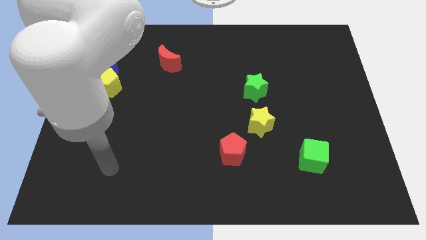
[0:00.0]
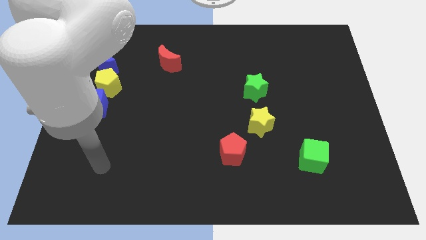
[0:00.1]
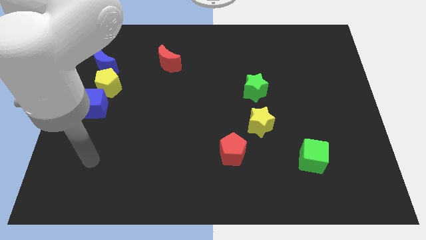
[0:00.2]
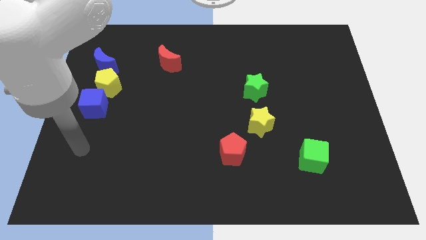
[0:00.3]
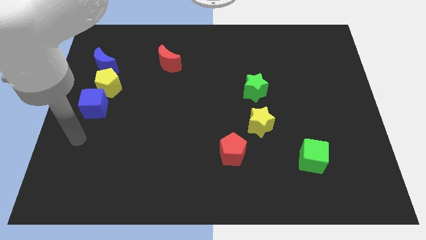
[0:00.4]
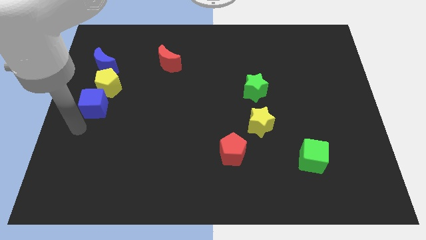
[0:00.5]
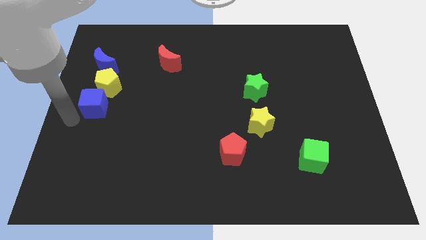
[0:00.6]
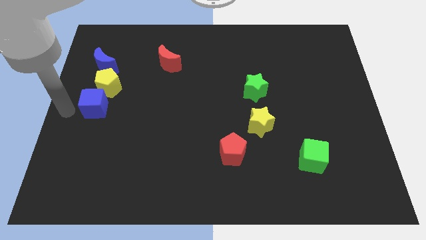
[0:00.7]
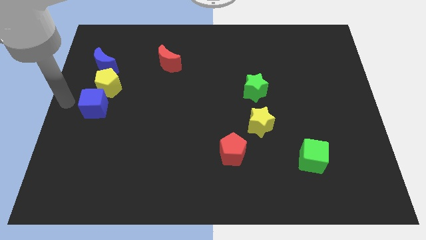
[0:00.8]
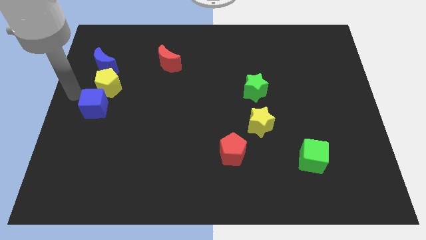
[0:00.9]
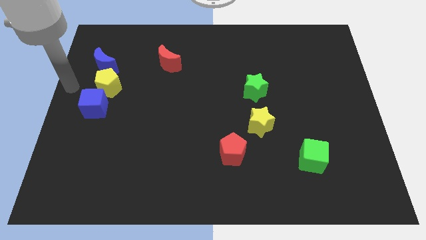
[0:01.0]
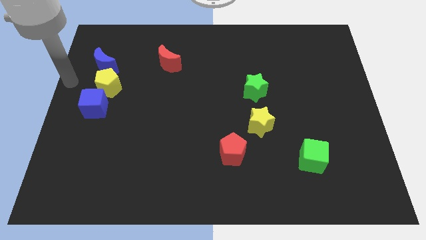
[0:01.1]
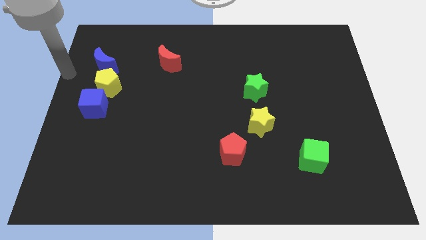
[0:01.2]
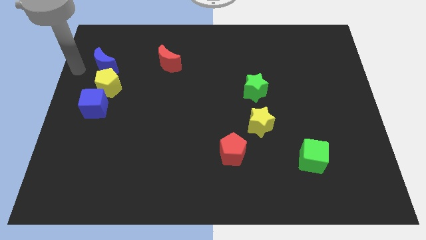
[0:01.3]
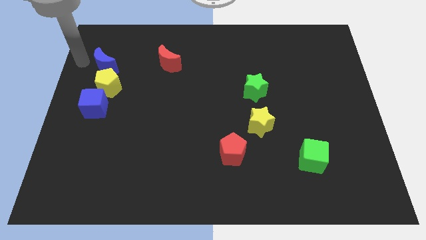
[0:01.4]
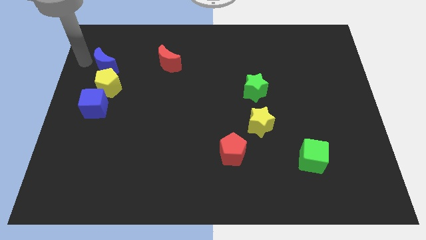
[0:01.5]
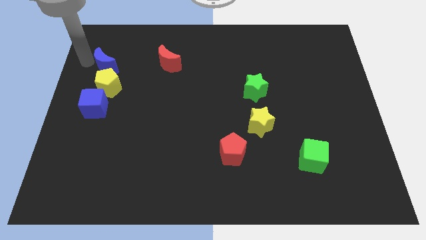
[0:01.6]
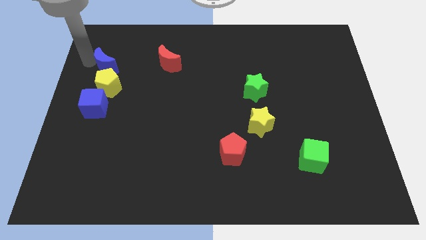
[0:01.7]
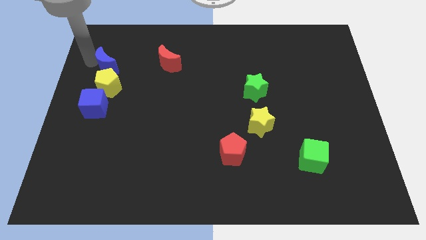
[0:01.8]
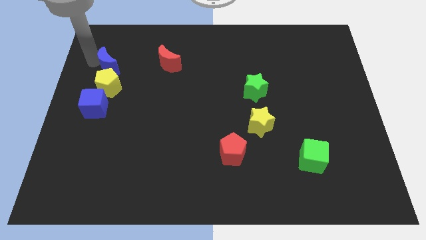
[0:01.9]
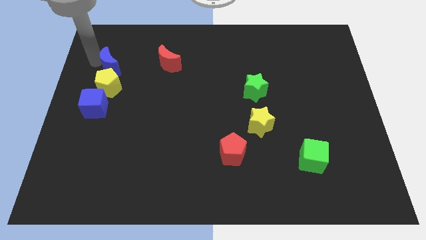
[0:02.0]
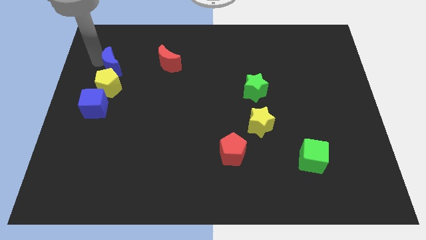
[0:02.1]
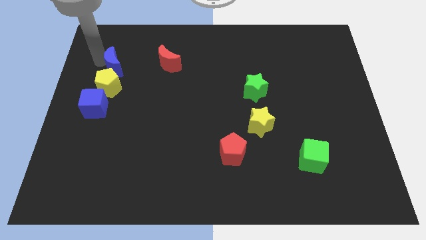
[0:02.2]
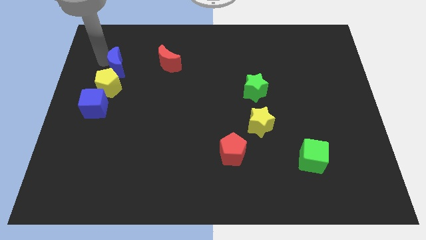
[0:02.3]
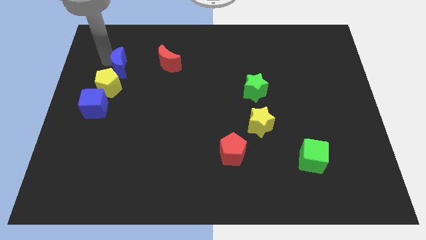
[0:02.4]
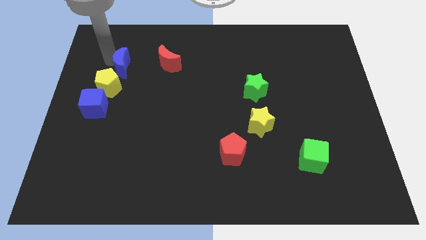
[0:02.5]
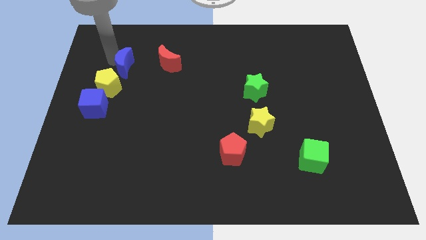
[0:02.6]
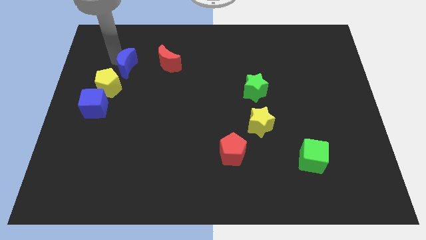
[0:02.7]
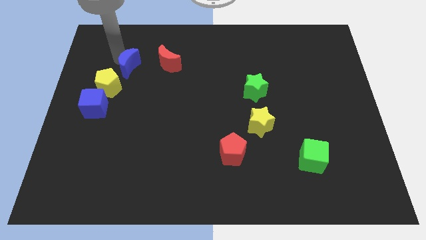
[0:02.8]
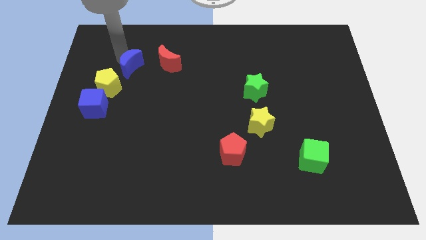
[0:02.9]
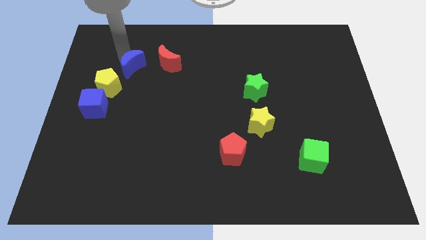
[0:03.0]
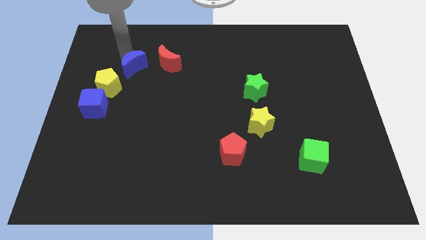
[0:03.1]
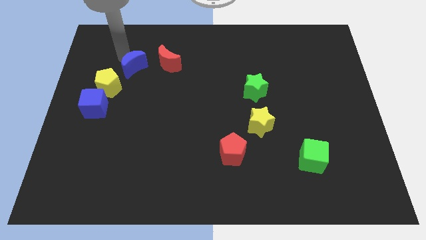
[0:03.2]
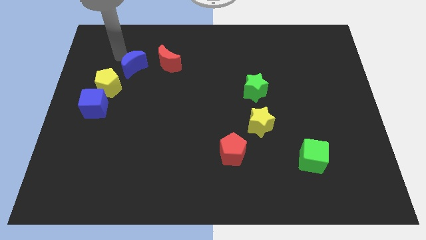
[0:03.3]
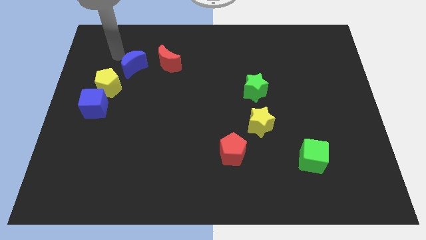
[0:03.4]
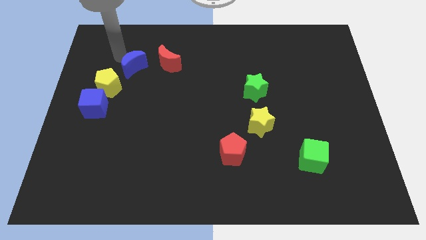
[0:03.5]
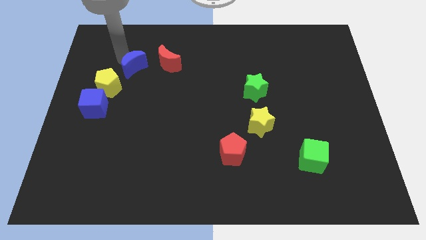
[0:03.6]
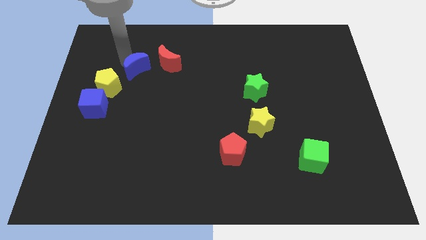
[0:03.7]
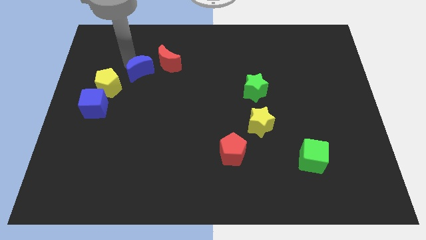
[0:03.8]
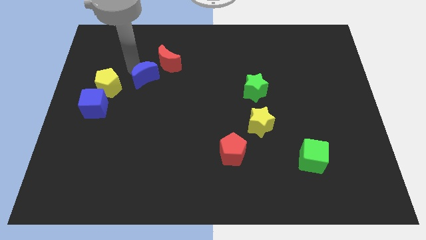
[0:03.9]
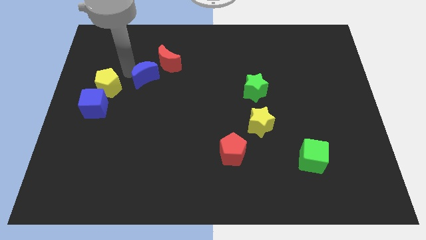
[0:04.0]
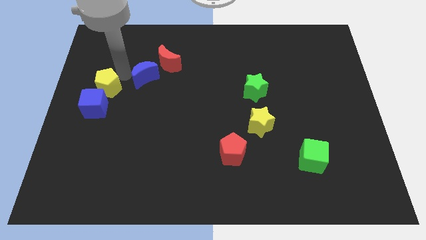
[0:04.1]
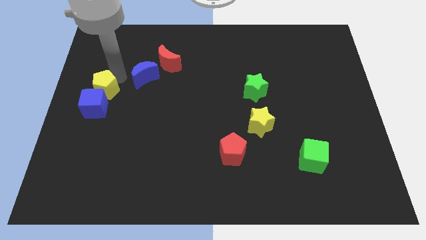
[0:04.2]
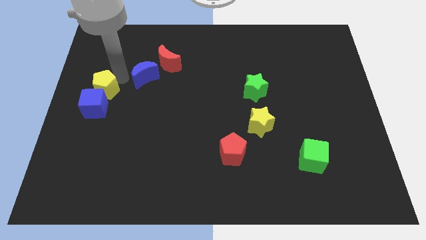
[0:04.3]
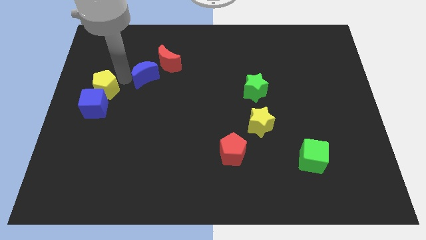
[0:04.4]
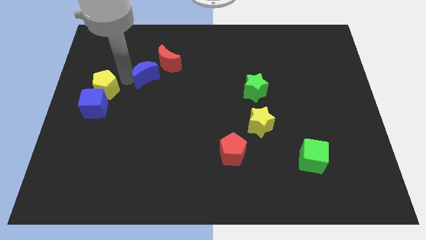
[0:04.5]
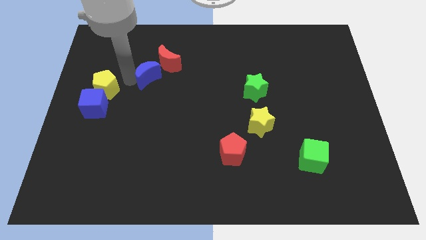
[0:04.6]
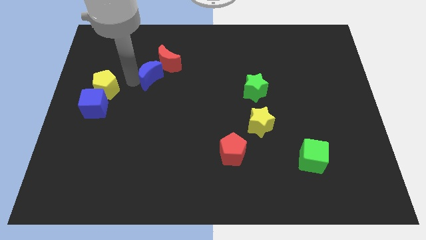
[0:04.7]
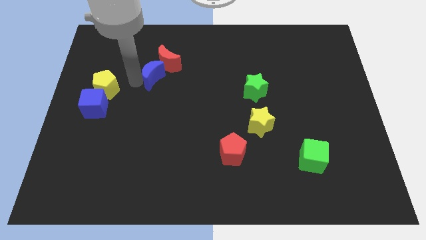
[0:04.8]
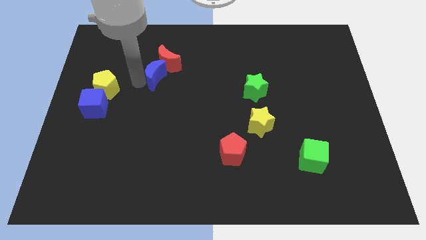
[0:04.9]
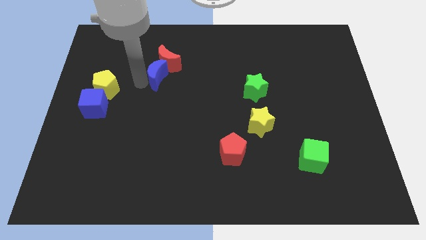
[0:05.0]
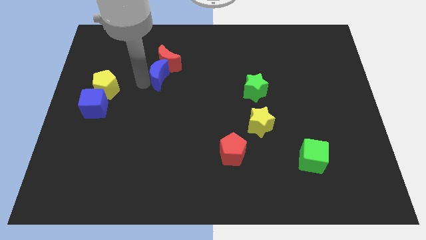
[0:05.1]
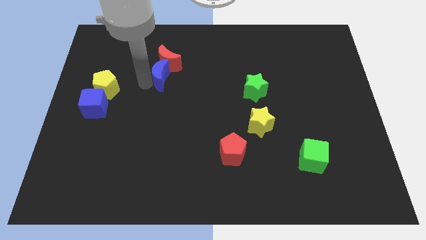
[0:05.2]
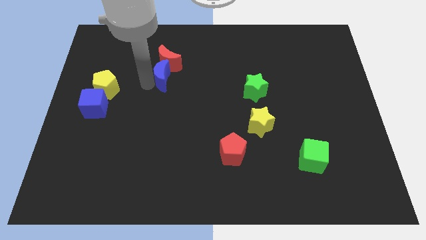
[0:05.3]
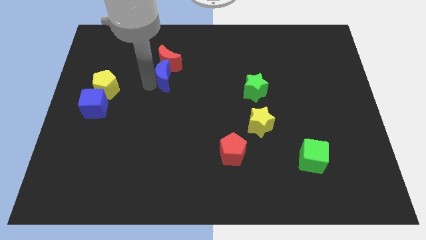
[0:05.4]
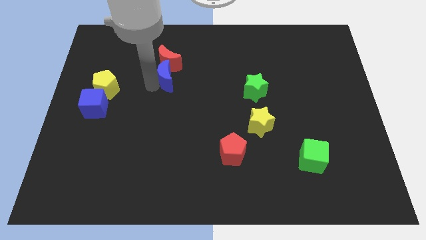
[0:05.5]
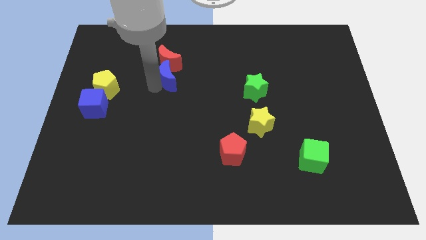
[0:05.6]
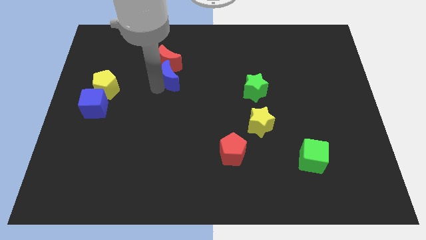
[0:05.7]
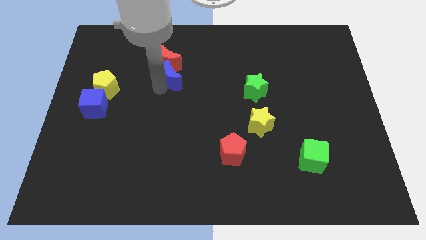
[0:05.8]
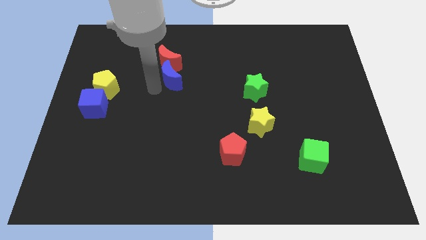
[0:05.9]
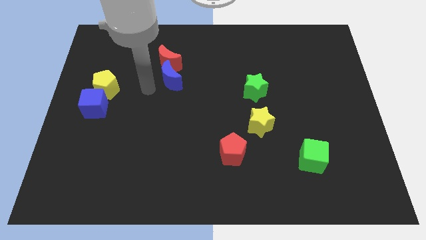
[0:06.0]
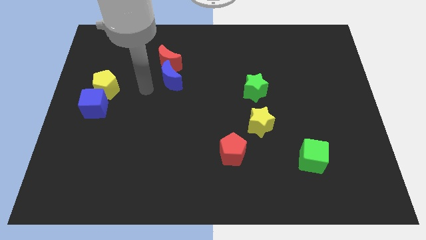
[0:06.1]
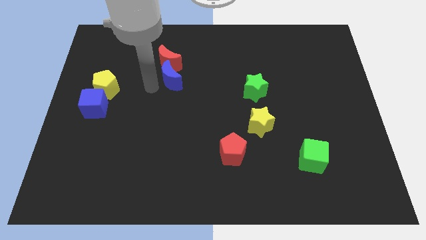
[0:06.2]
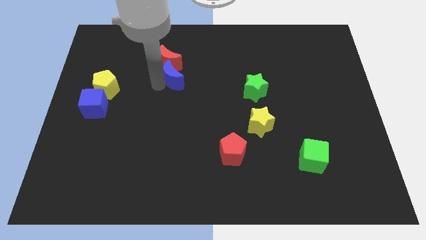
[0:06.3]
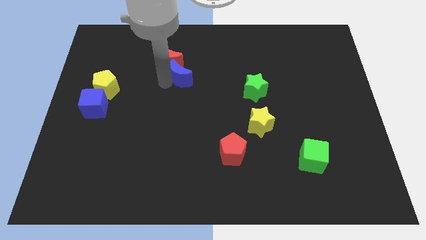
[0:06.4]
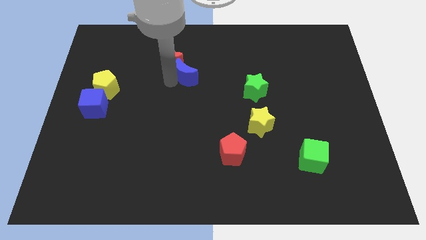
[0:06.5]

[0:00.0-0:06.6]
push the blue moon to the right

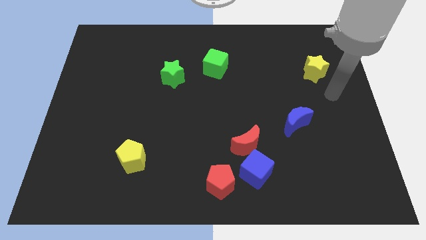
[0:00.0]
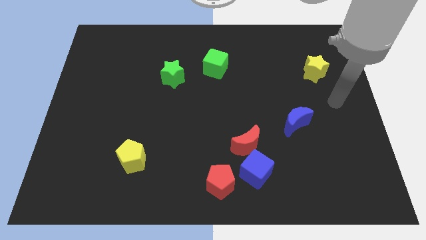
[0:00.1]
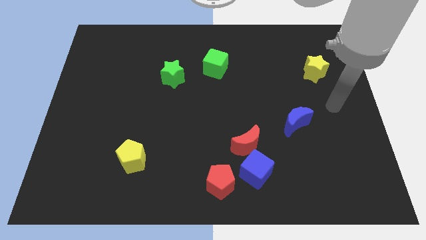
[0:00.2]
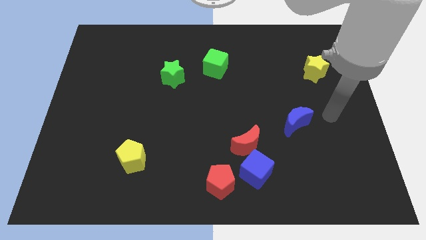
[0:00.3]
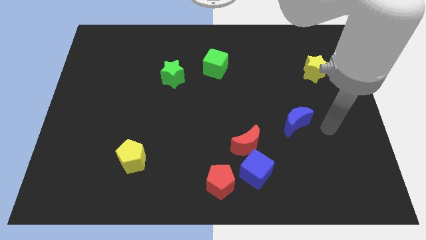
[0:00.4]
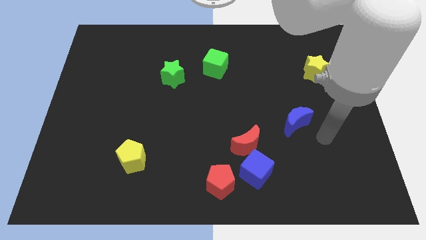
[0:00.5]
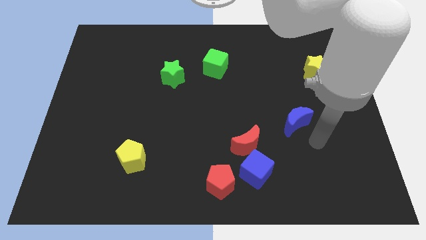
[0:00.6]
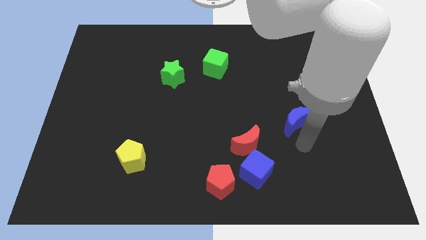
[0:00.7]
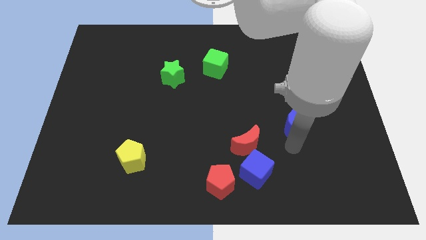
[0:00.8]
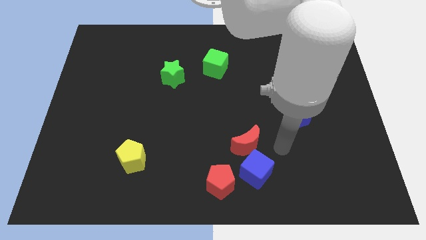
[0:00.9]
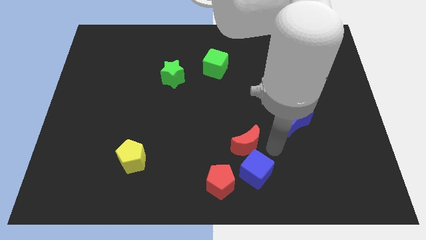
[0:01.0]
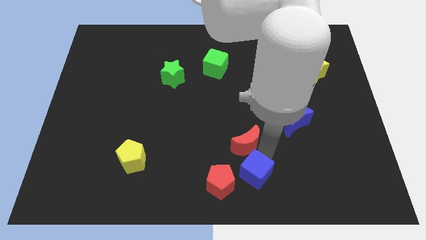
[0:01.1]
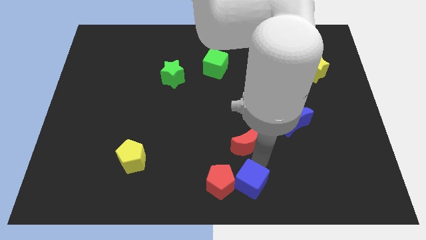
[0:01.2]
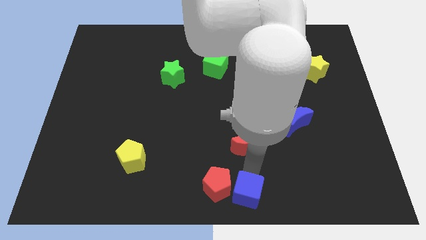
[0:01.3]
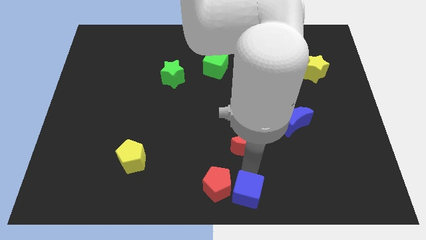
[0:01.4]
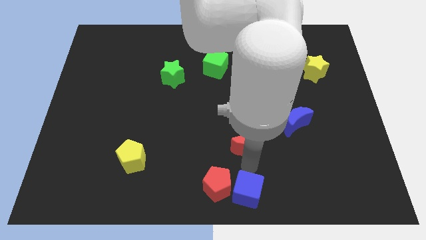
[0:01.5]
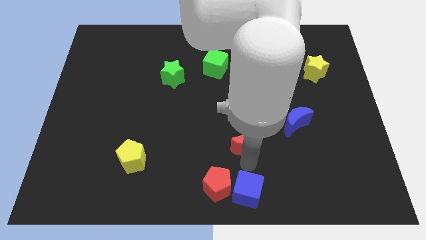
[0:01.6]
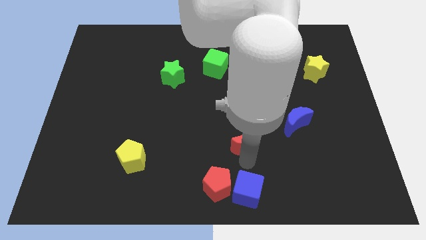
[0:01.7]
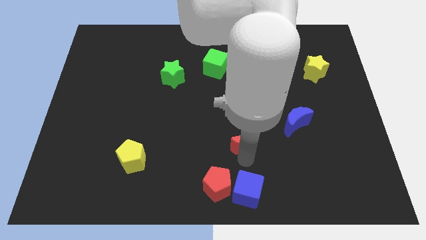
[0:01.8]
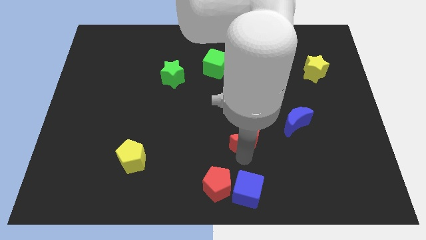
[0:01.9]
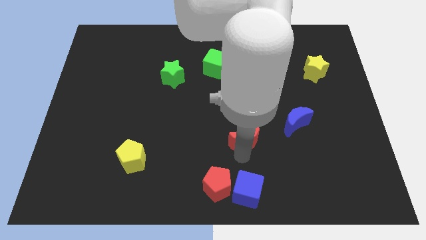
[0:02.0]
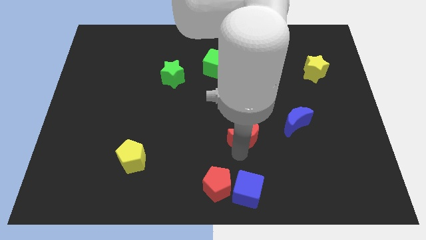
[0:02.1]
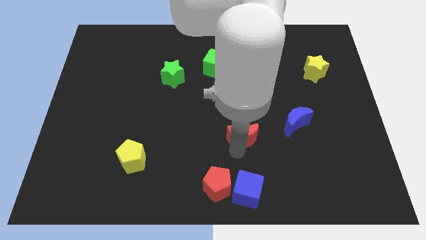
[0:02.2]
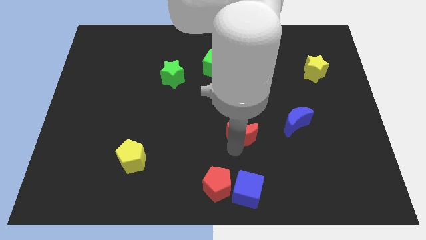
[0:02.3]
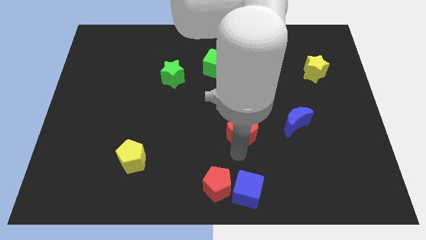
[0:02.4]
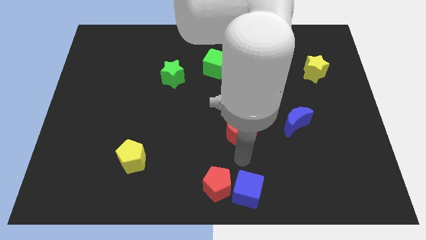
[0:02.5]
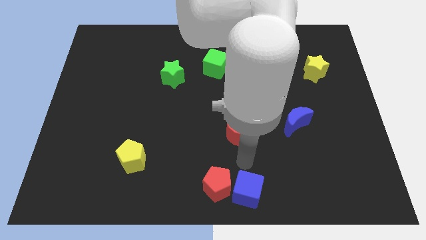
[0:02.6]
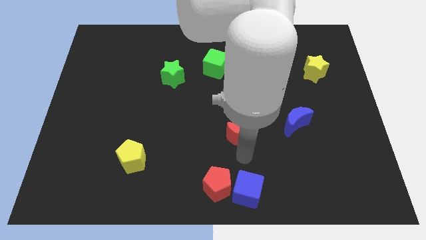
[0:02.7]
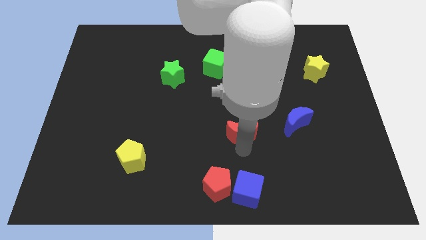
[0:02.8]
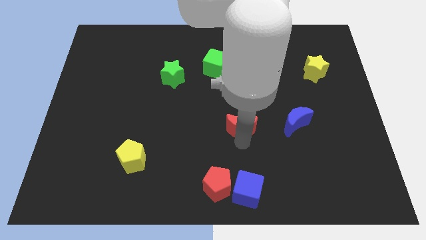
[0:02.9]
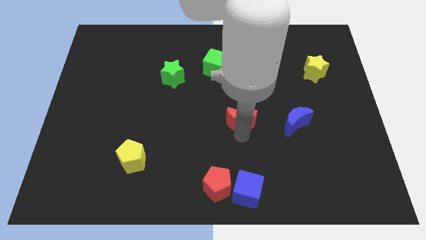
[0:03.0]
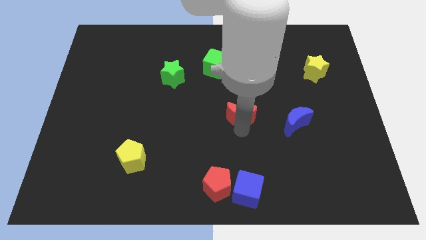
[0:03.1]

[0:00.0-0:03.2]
slightly push the red moon up
